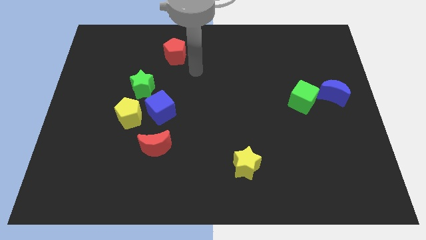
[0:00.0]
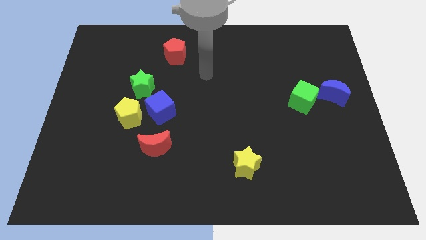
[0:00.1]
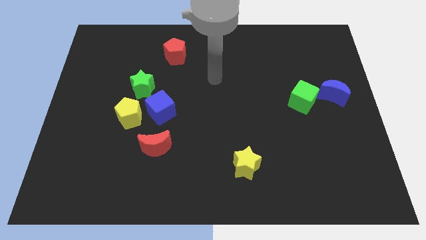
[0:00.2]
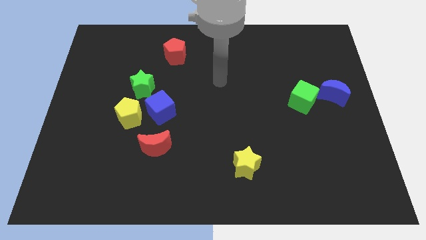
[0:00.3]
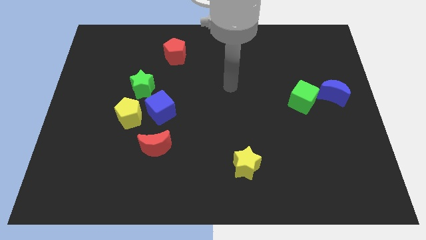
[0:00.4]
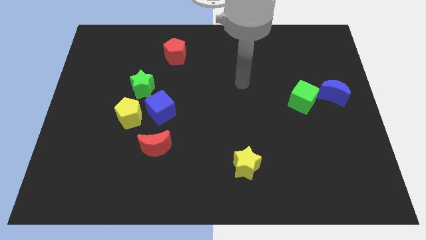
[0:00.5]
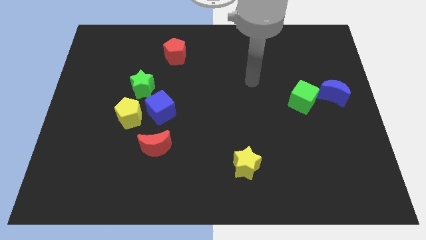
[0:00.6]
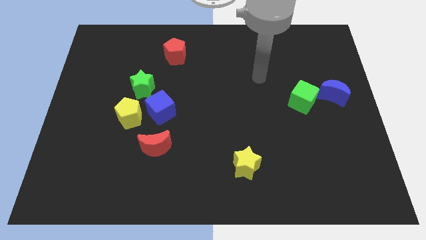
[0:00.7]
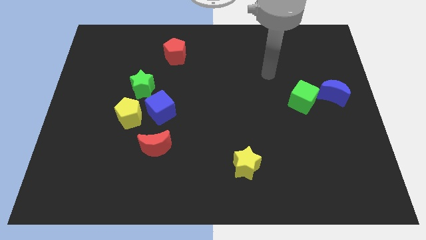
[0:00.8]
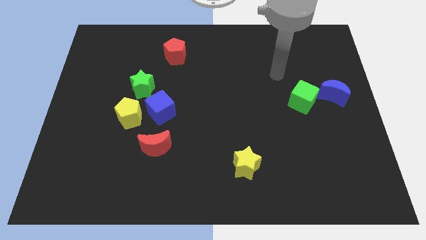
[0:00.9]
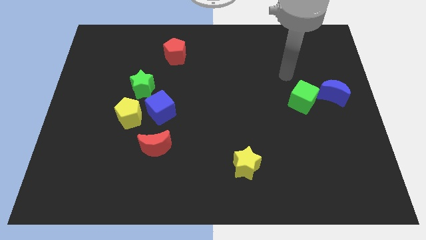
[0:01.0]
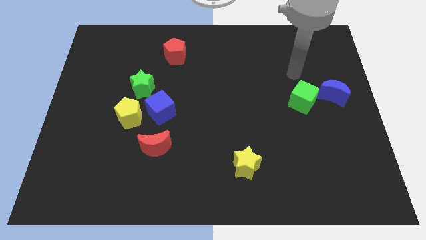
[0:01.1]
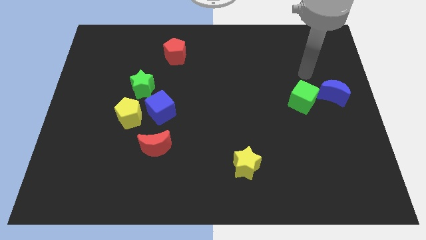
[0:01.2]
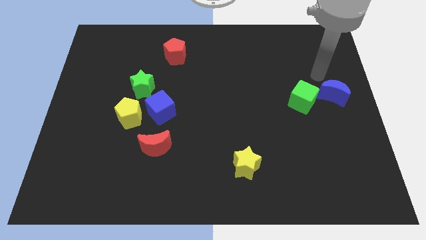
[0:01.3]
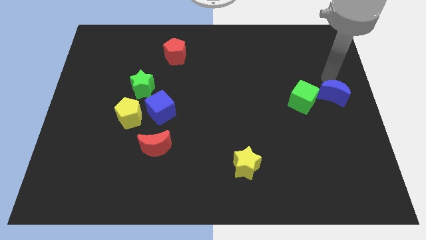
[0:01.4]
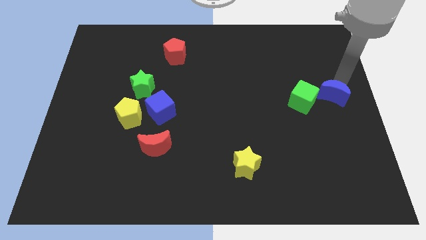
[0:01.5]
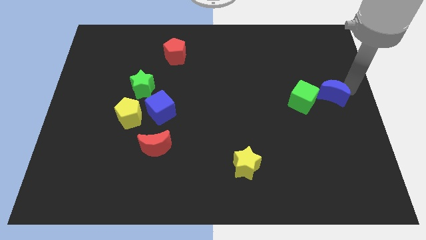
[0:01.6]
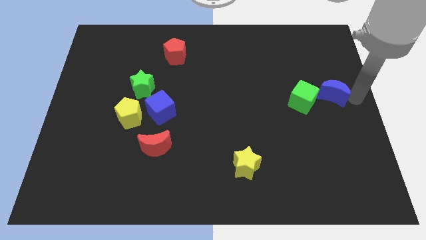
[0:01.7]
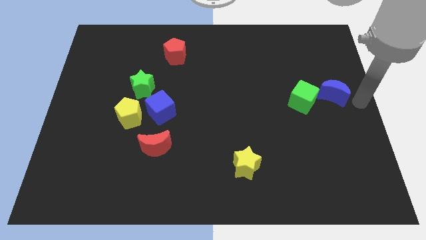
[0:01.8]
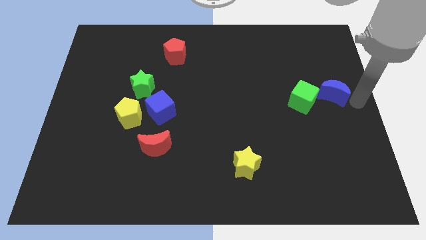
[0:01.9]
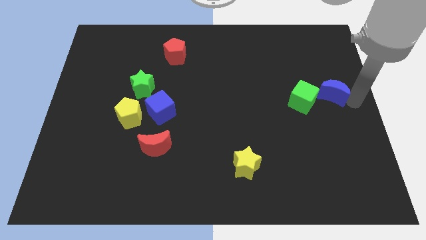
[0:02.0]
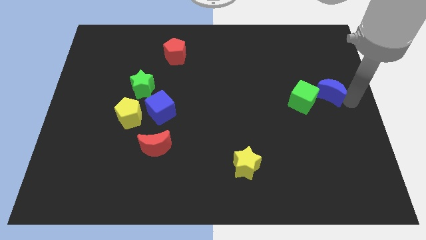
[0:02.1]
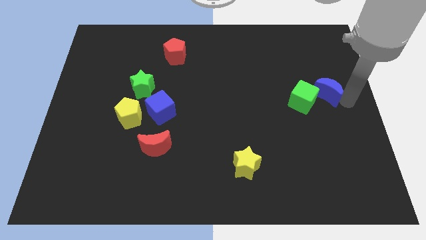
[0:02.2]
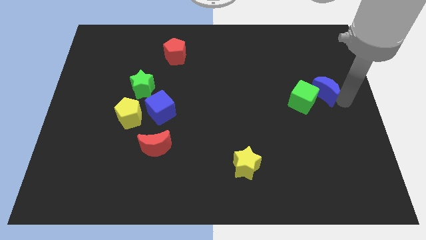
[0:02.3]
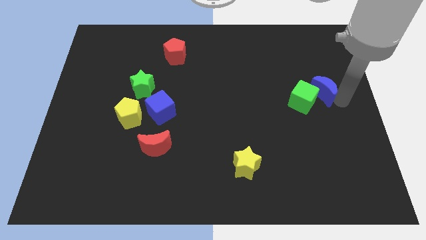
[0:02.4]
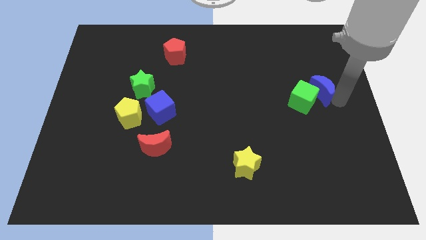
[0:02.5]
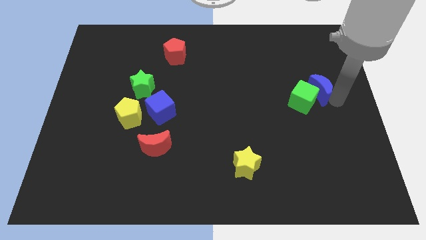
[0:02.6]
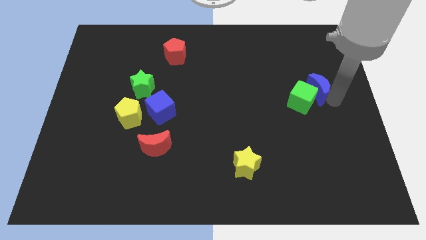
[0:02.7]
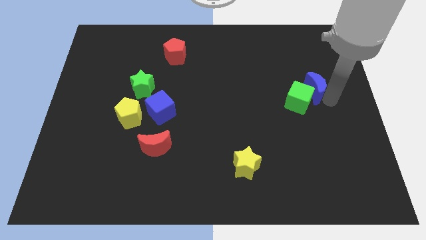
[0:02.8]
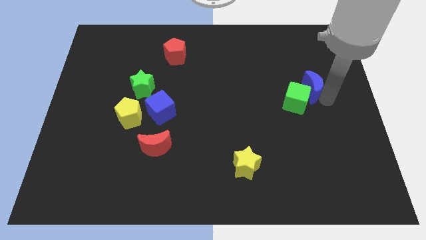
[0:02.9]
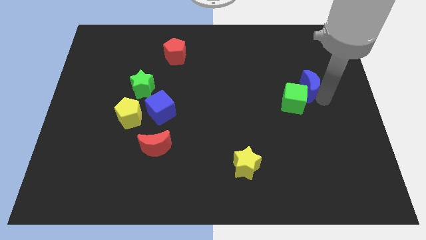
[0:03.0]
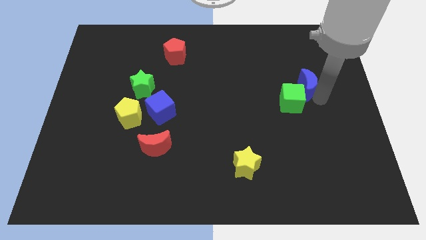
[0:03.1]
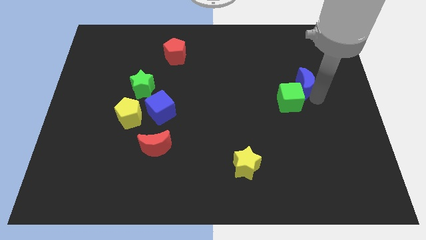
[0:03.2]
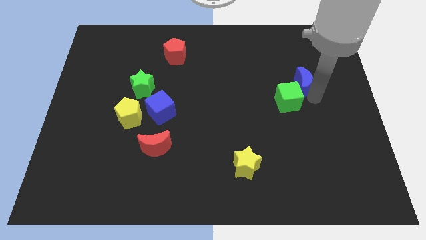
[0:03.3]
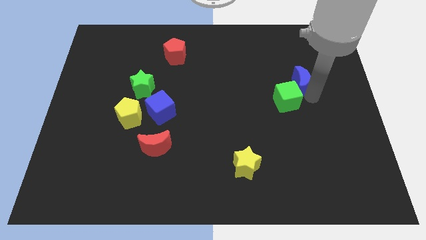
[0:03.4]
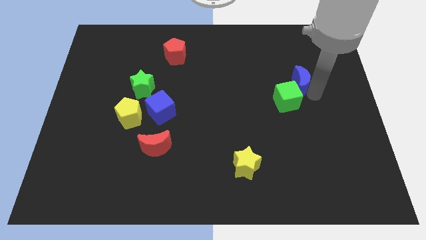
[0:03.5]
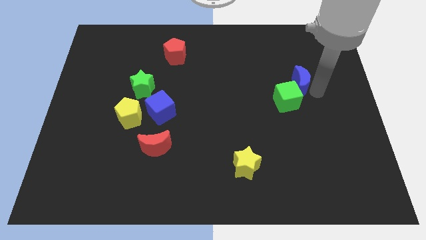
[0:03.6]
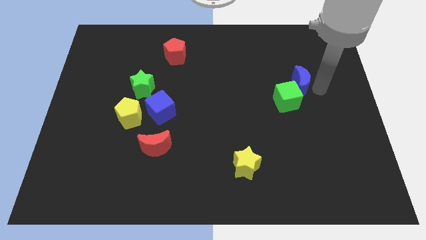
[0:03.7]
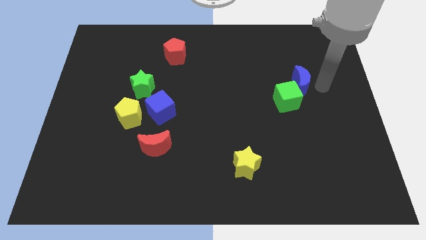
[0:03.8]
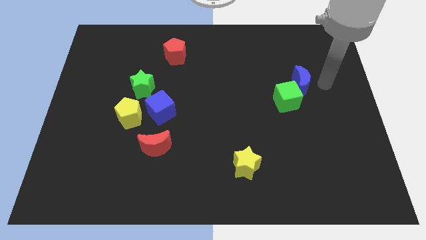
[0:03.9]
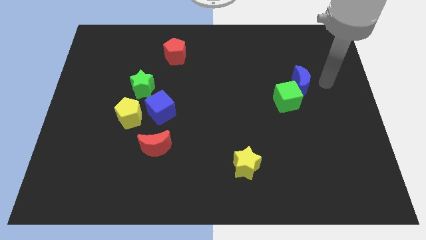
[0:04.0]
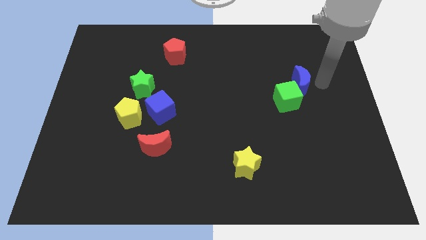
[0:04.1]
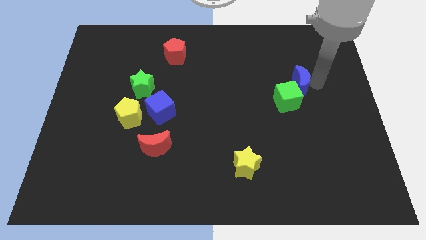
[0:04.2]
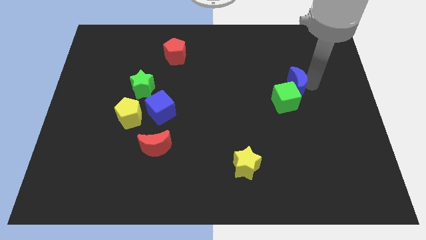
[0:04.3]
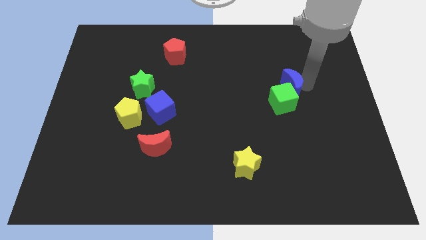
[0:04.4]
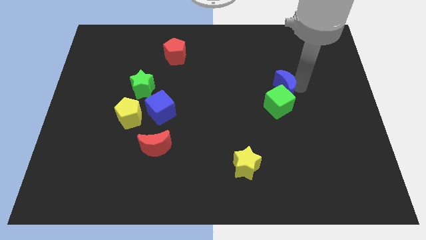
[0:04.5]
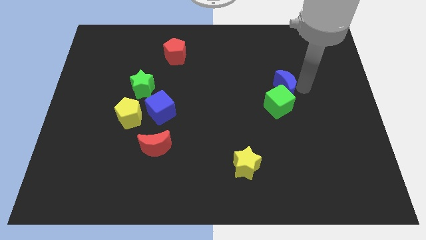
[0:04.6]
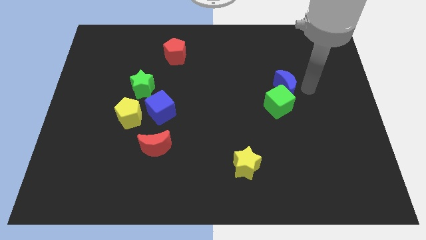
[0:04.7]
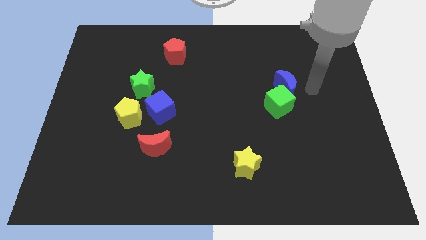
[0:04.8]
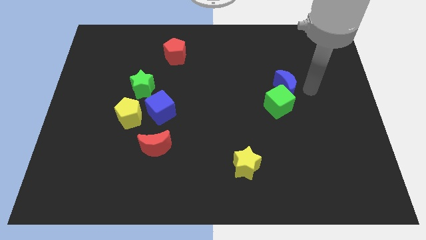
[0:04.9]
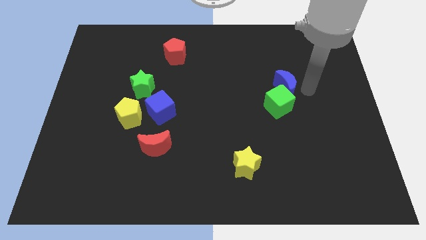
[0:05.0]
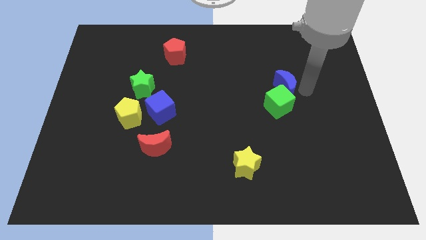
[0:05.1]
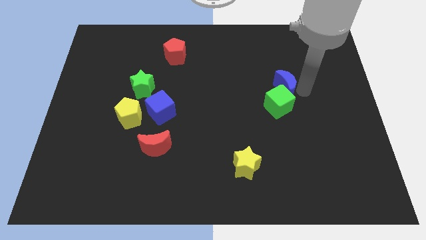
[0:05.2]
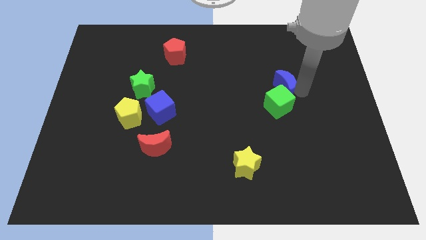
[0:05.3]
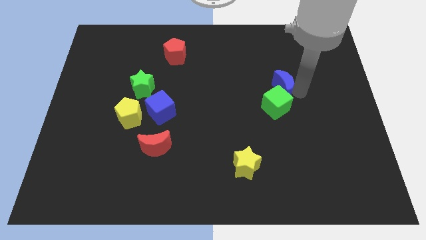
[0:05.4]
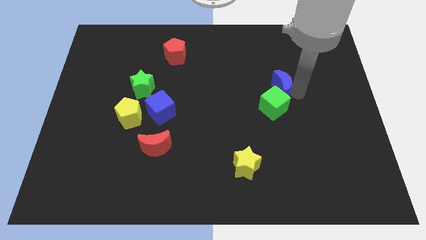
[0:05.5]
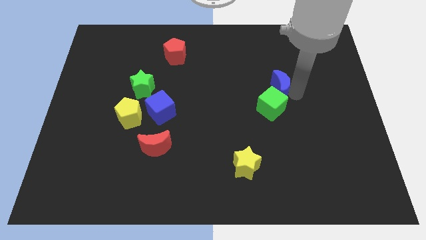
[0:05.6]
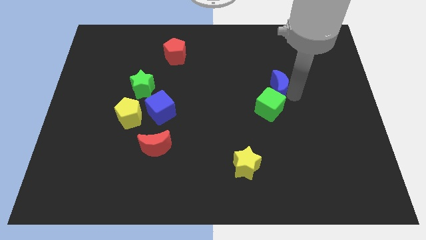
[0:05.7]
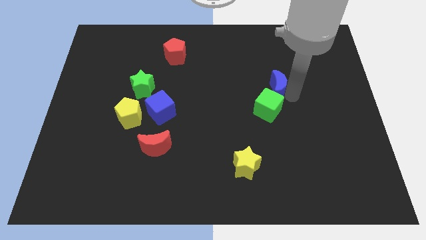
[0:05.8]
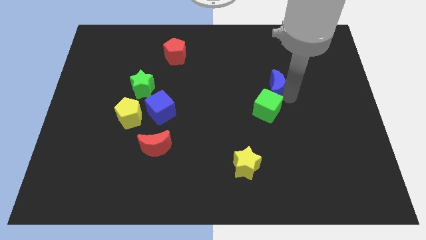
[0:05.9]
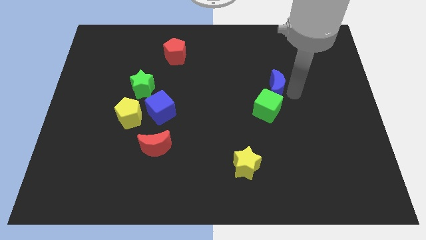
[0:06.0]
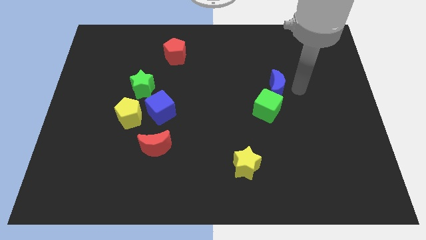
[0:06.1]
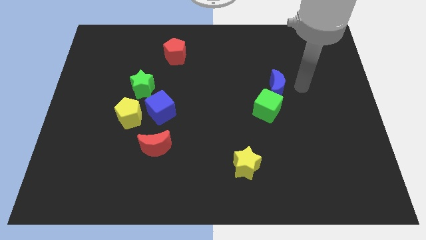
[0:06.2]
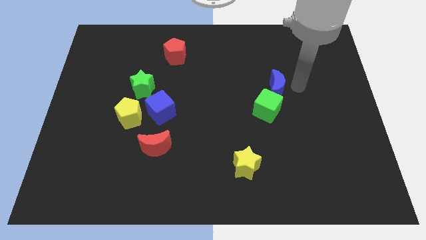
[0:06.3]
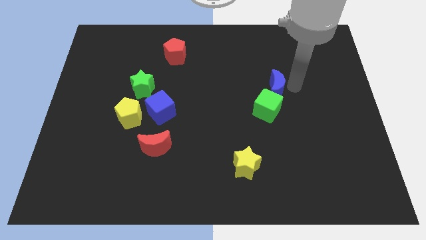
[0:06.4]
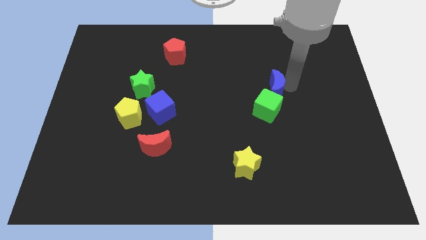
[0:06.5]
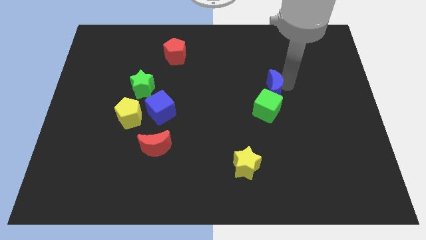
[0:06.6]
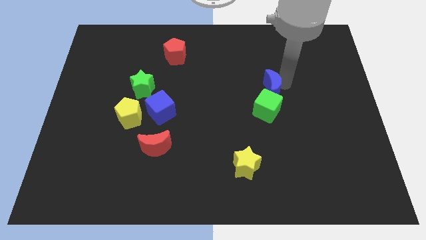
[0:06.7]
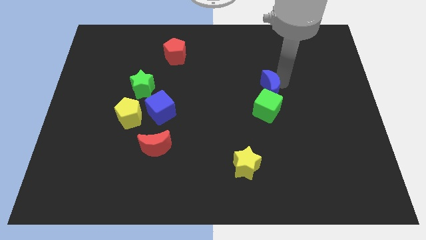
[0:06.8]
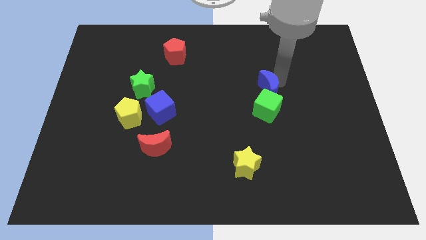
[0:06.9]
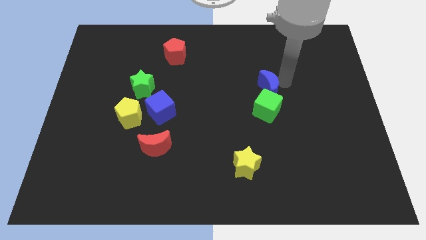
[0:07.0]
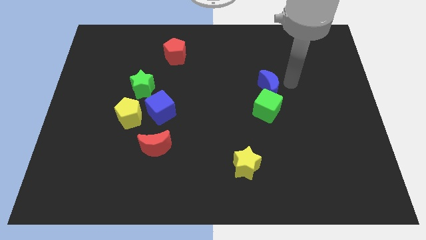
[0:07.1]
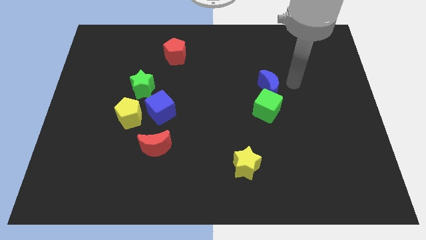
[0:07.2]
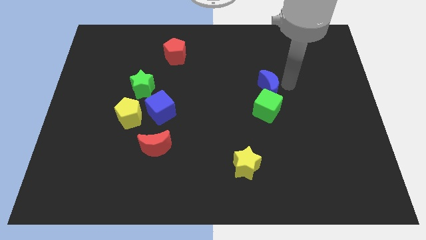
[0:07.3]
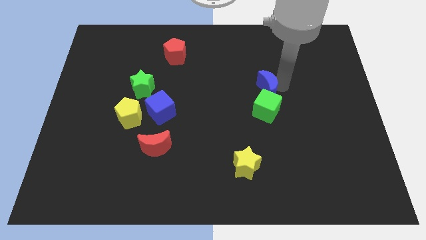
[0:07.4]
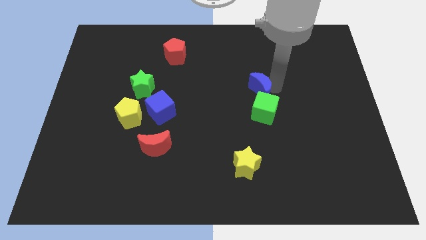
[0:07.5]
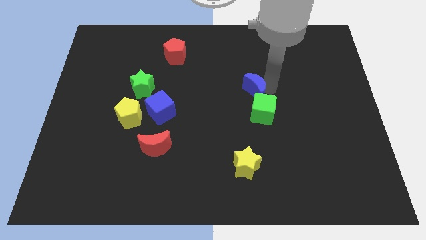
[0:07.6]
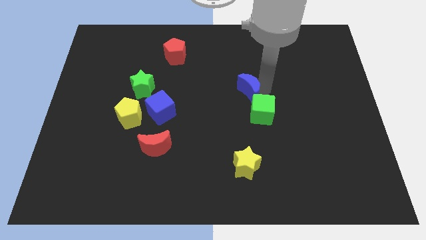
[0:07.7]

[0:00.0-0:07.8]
move the blue moon left

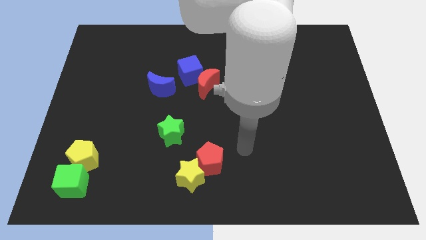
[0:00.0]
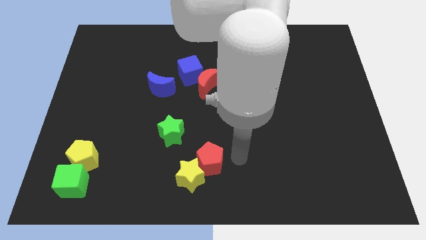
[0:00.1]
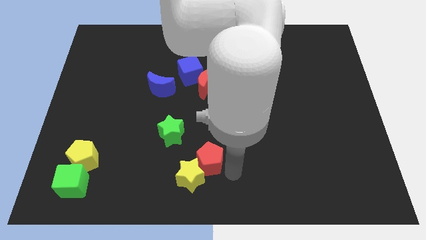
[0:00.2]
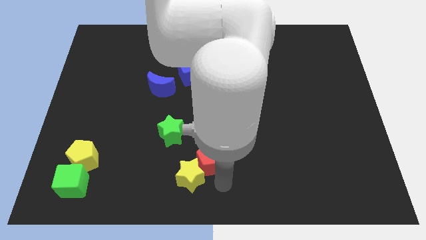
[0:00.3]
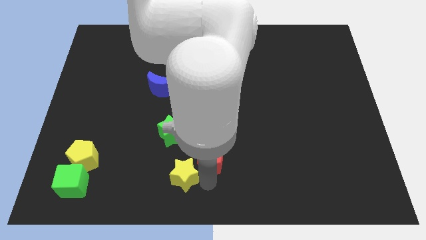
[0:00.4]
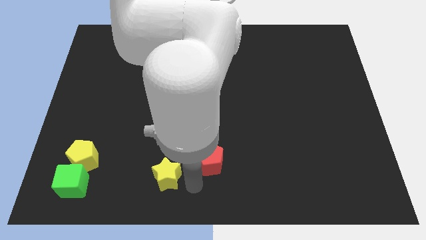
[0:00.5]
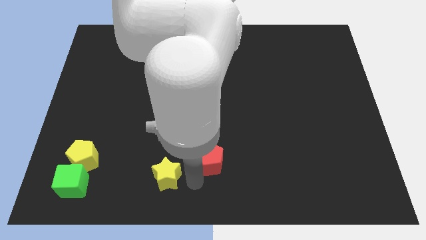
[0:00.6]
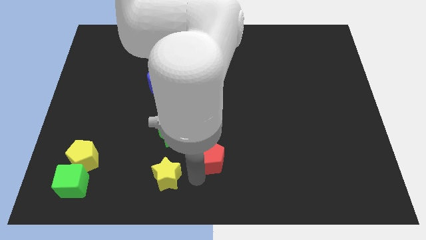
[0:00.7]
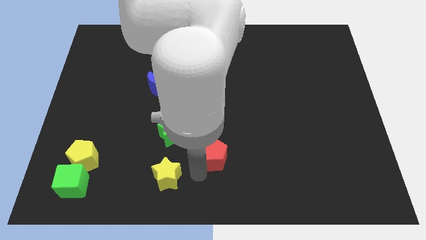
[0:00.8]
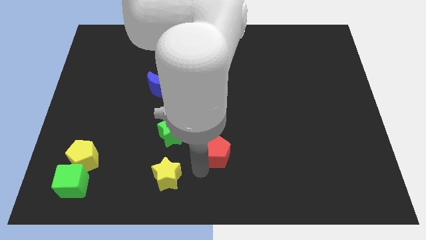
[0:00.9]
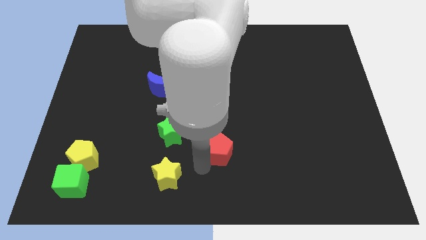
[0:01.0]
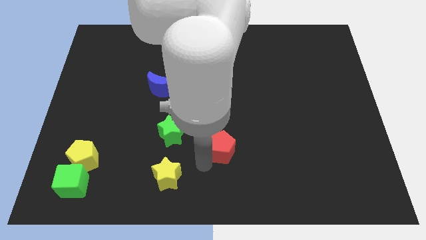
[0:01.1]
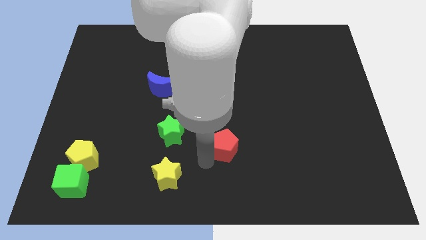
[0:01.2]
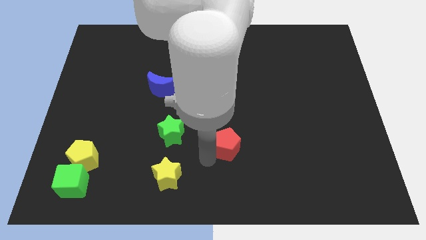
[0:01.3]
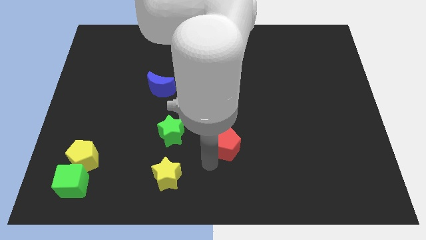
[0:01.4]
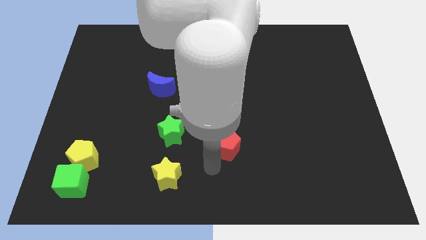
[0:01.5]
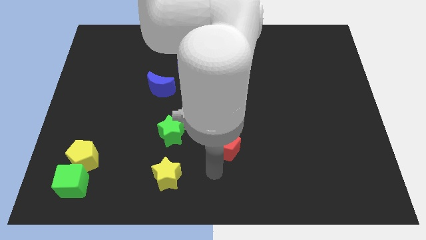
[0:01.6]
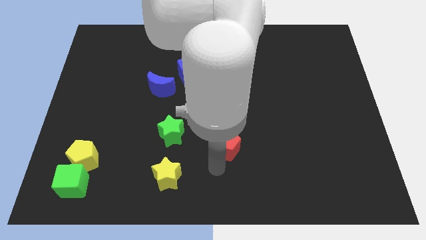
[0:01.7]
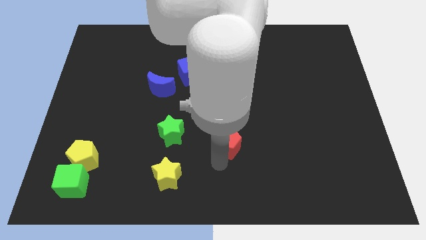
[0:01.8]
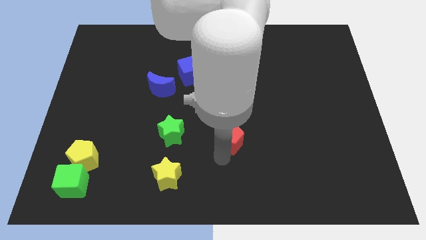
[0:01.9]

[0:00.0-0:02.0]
move the red pentagon upwards and then to the right a bit
